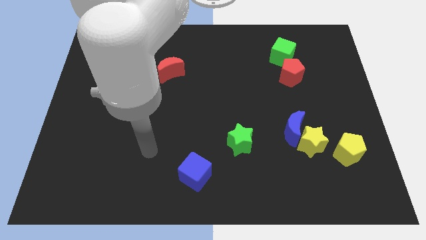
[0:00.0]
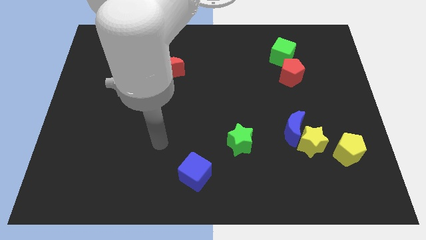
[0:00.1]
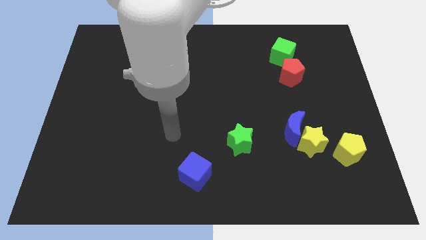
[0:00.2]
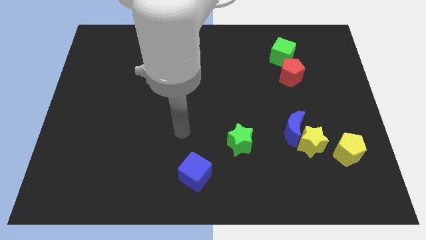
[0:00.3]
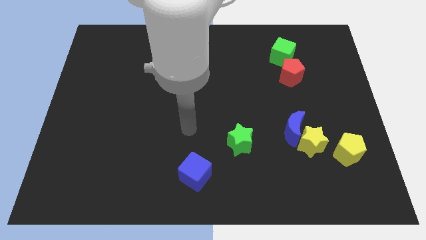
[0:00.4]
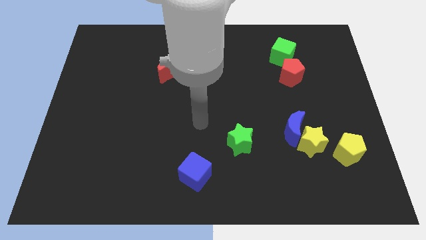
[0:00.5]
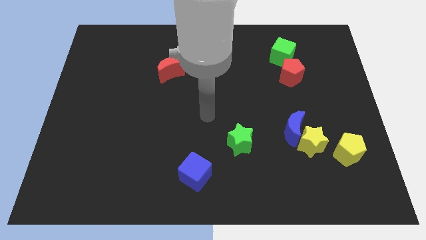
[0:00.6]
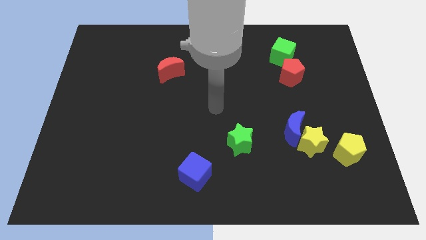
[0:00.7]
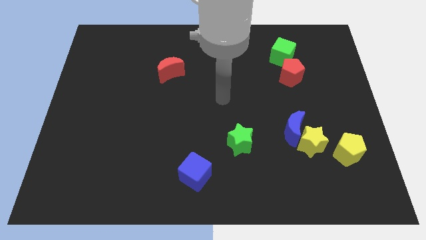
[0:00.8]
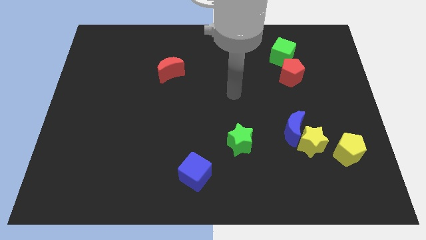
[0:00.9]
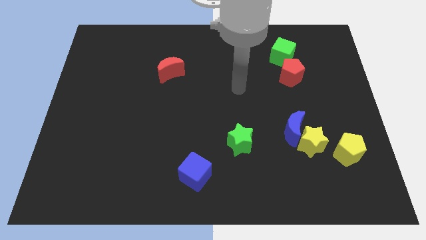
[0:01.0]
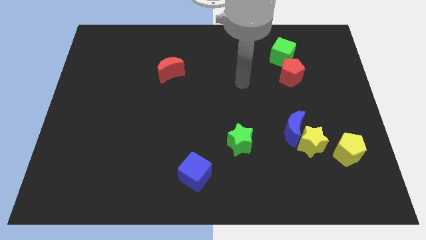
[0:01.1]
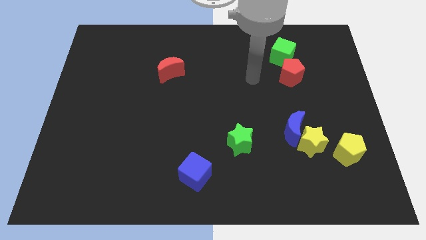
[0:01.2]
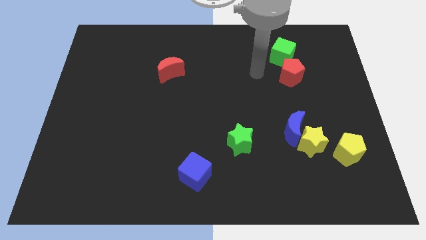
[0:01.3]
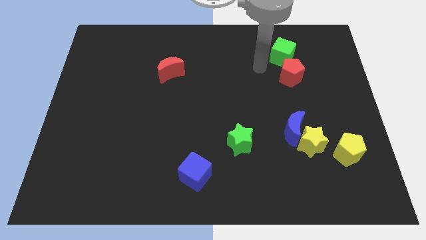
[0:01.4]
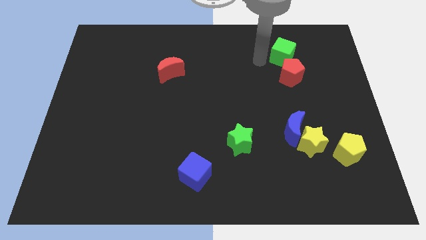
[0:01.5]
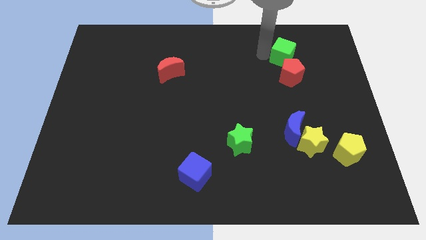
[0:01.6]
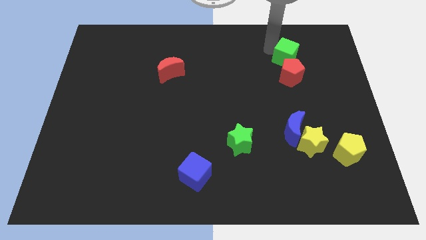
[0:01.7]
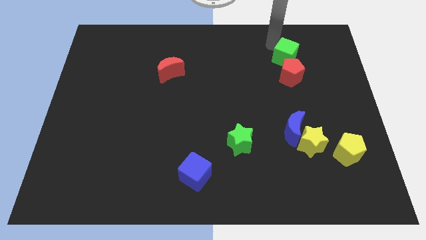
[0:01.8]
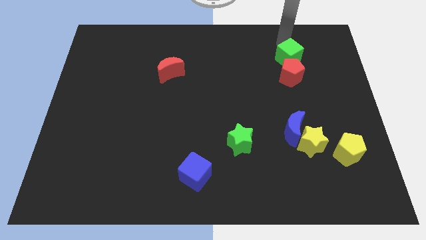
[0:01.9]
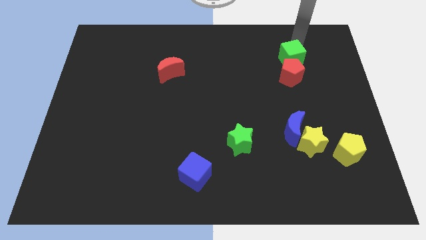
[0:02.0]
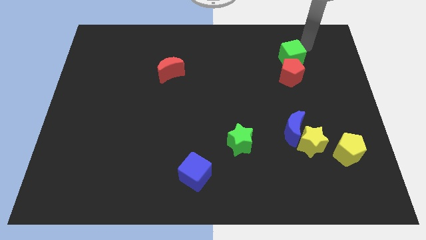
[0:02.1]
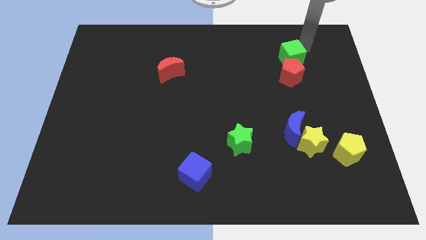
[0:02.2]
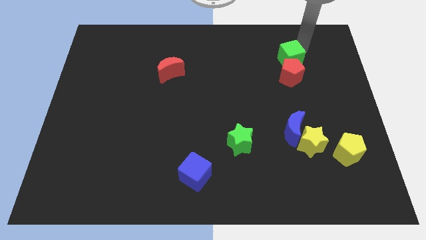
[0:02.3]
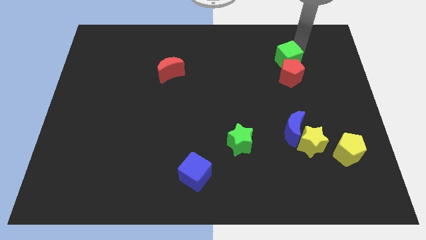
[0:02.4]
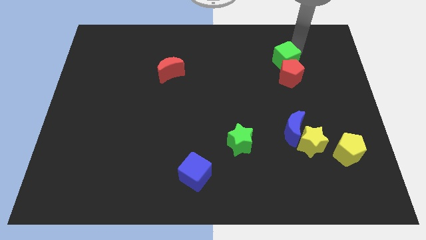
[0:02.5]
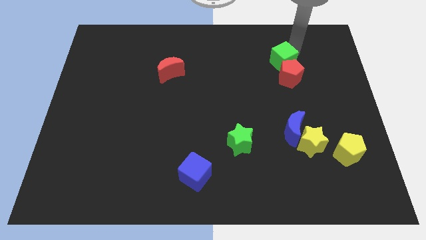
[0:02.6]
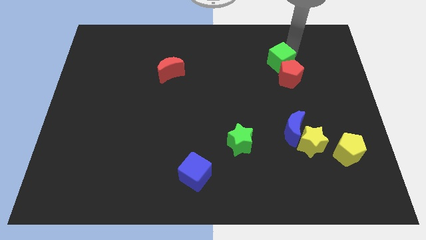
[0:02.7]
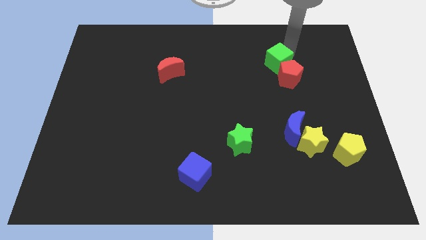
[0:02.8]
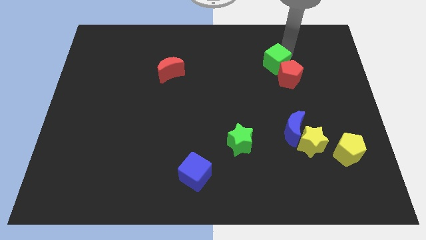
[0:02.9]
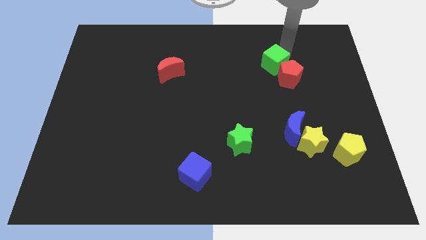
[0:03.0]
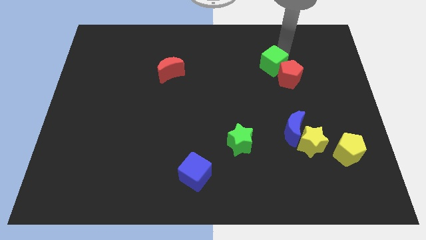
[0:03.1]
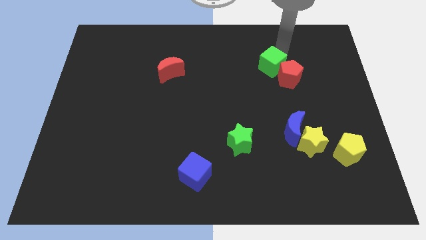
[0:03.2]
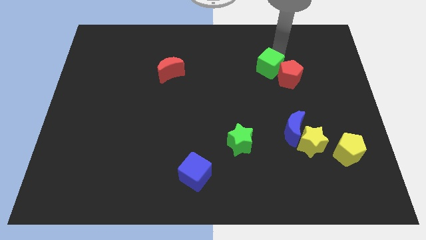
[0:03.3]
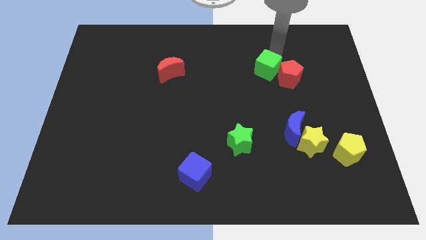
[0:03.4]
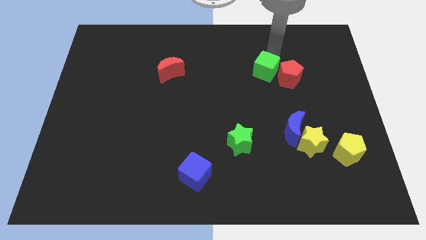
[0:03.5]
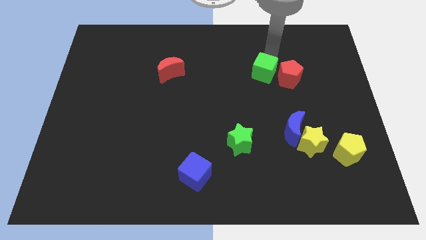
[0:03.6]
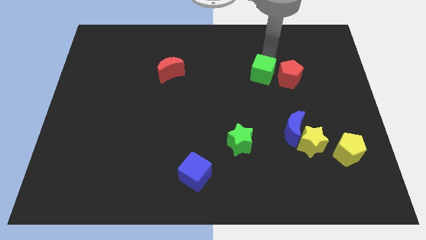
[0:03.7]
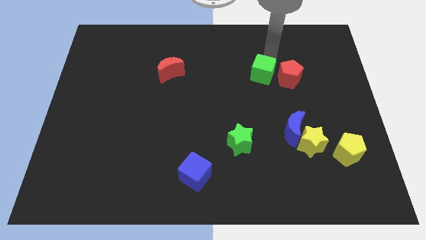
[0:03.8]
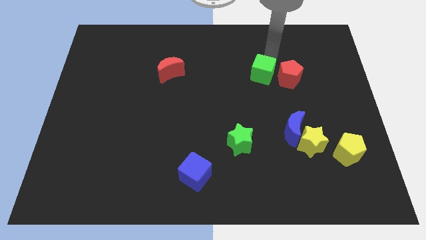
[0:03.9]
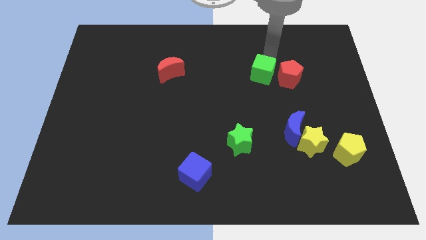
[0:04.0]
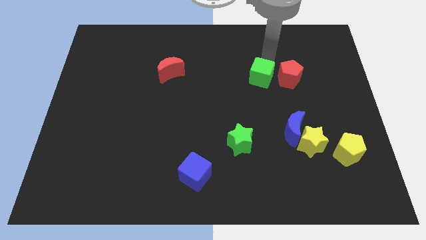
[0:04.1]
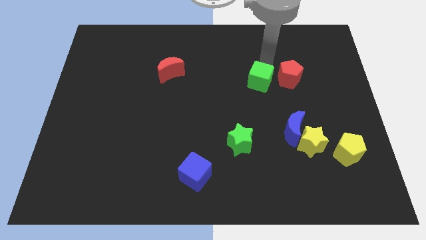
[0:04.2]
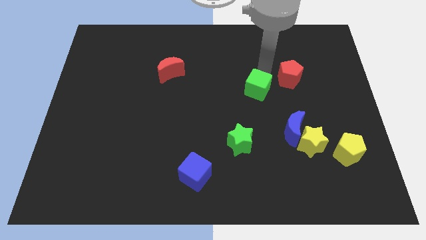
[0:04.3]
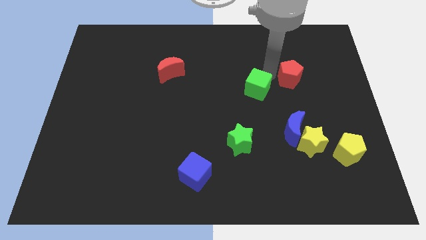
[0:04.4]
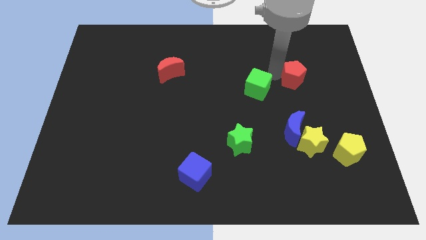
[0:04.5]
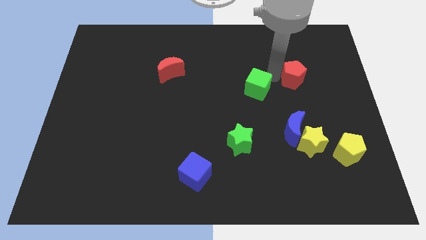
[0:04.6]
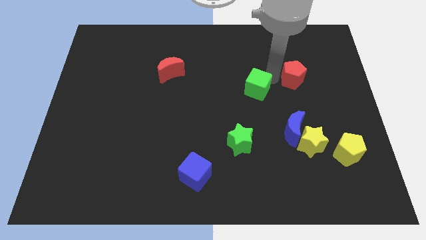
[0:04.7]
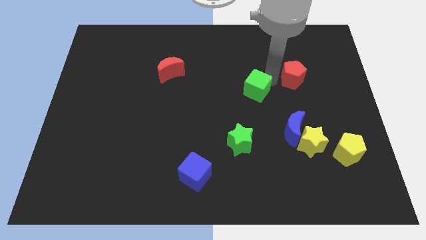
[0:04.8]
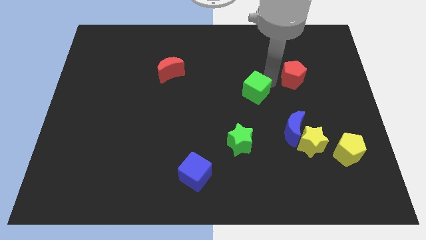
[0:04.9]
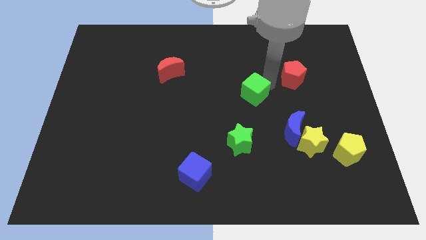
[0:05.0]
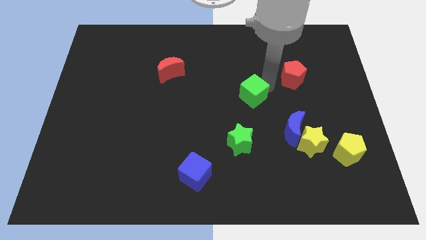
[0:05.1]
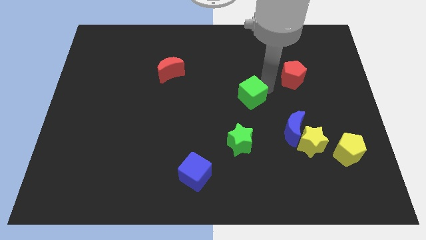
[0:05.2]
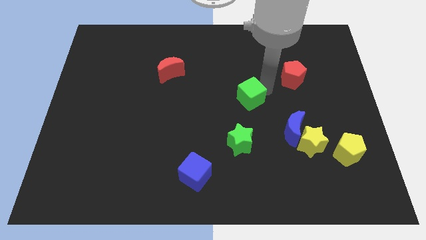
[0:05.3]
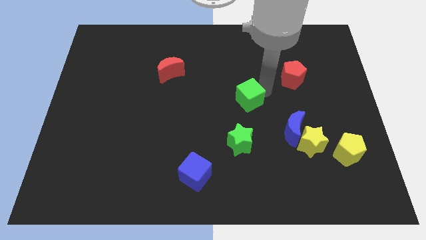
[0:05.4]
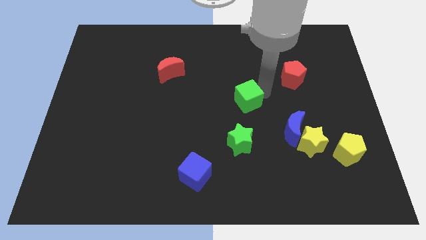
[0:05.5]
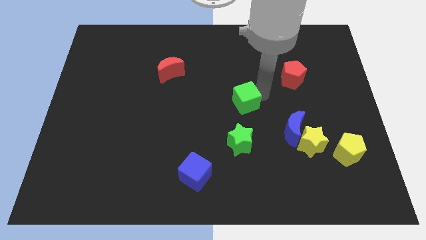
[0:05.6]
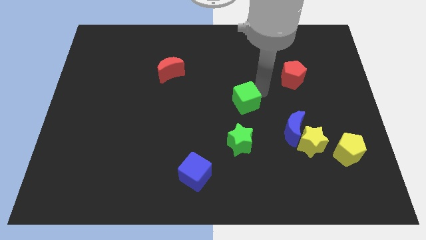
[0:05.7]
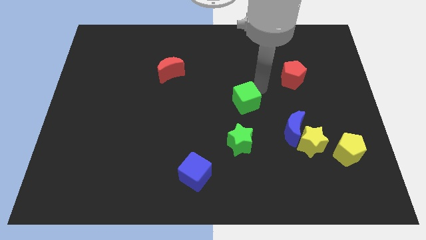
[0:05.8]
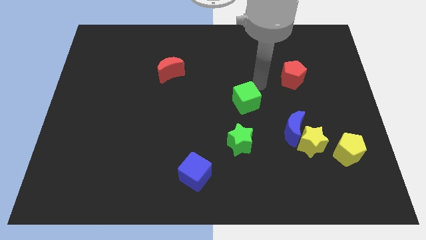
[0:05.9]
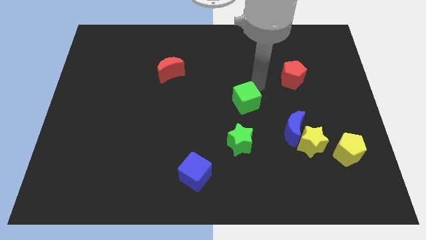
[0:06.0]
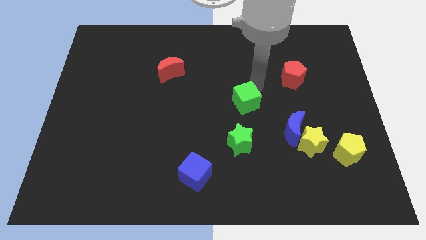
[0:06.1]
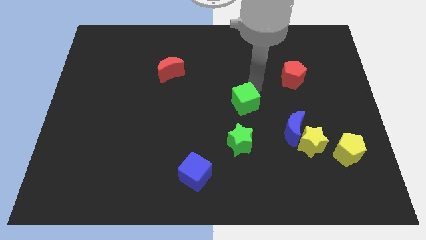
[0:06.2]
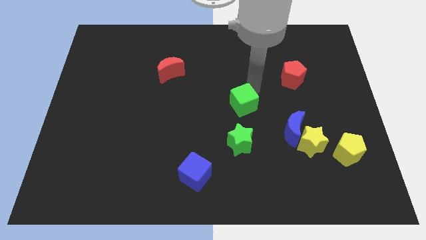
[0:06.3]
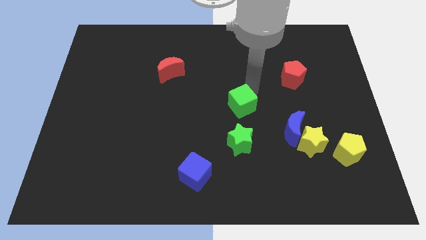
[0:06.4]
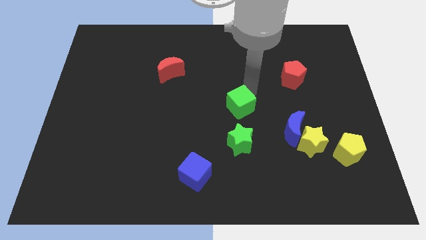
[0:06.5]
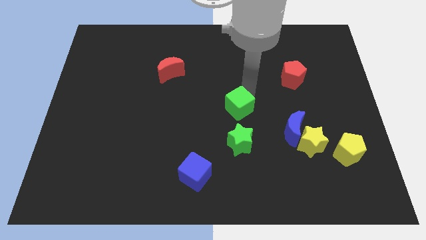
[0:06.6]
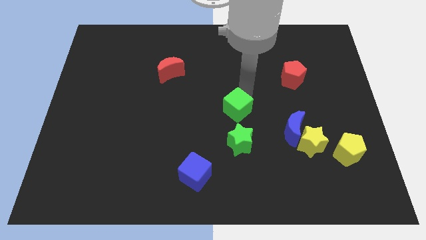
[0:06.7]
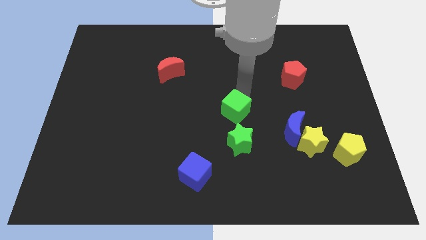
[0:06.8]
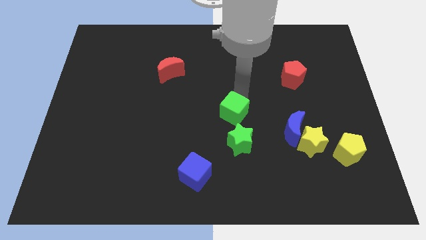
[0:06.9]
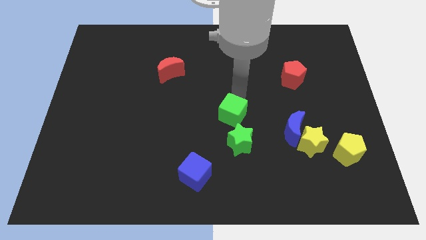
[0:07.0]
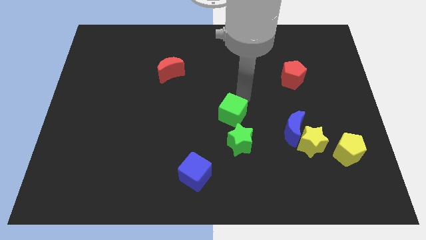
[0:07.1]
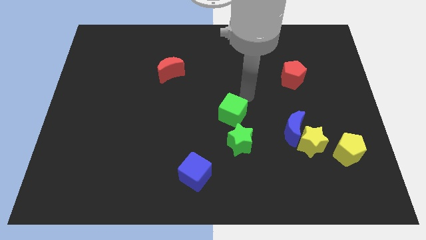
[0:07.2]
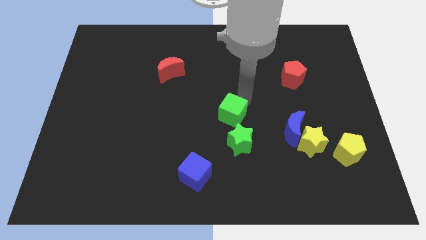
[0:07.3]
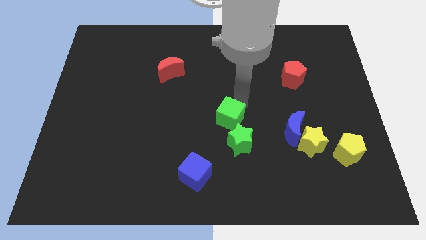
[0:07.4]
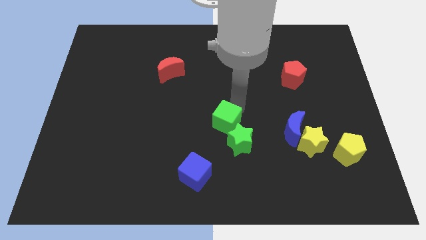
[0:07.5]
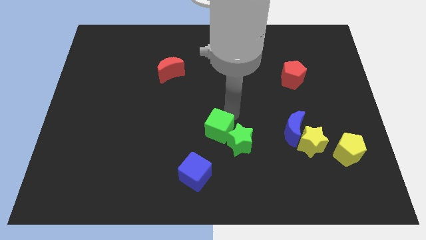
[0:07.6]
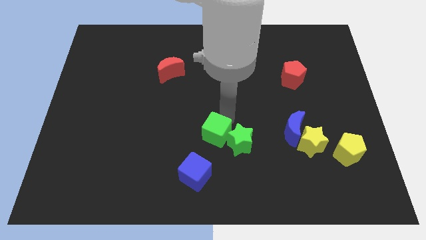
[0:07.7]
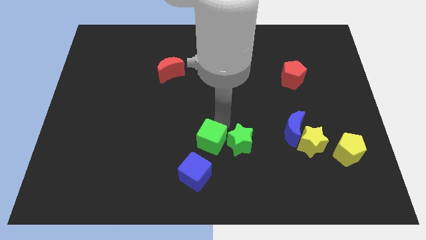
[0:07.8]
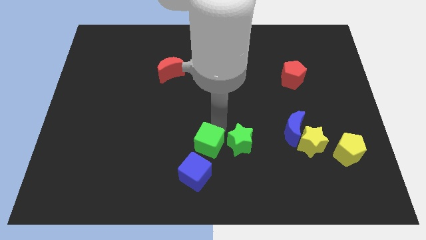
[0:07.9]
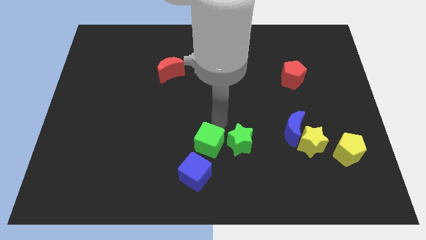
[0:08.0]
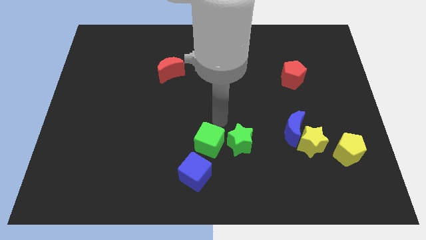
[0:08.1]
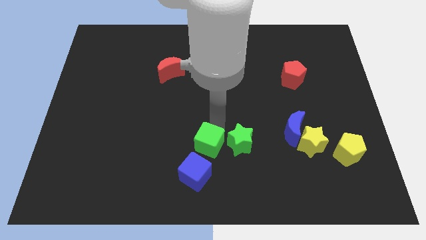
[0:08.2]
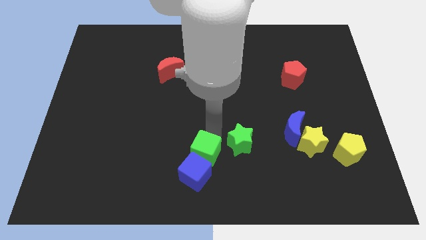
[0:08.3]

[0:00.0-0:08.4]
put the green cube to the blue cube
